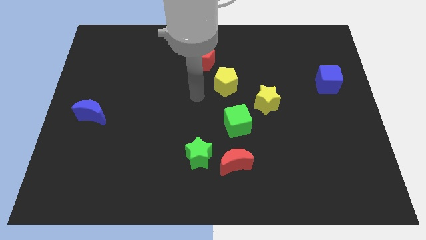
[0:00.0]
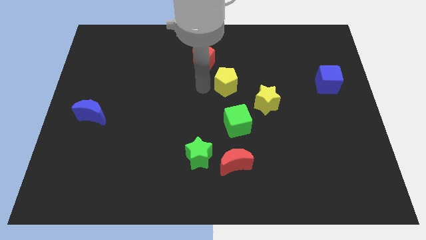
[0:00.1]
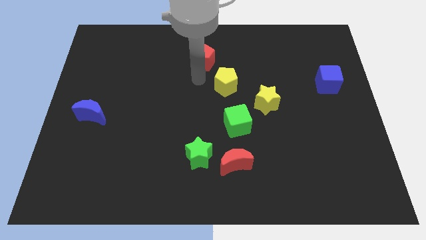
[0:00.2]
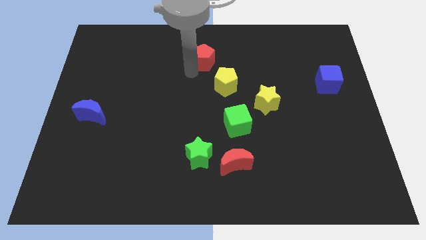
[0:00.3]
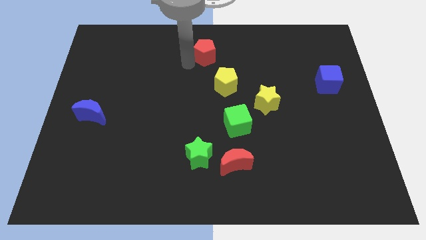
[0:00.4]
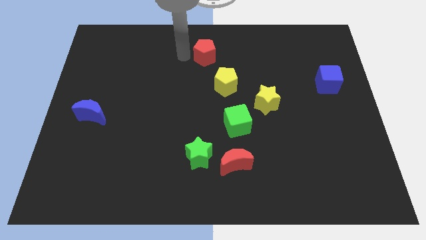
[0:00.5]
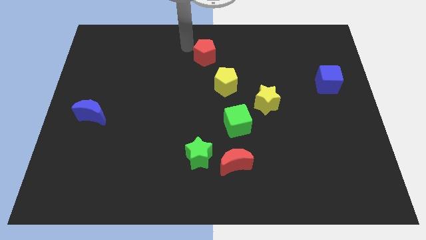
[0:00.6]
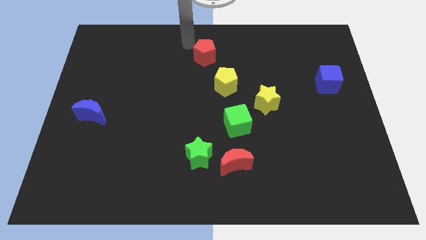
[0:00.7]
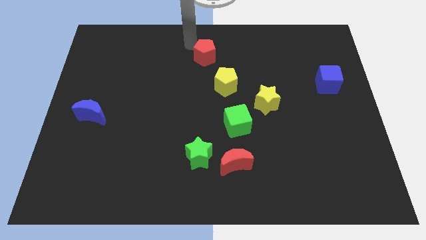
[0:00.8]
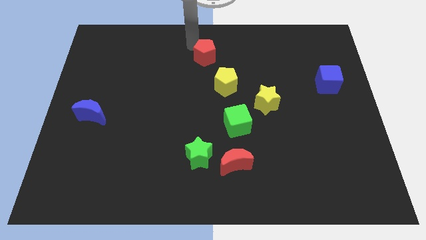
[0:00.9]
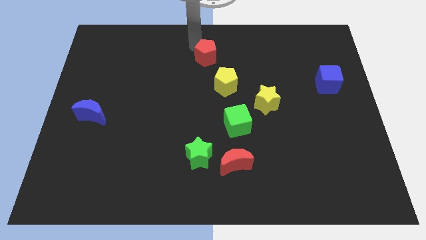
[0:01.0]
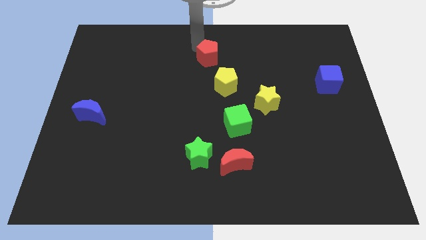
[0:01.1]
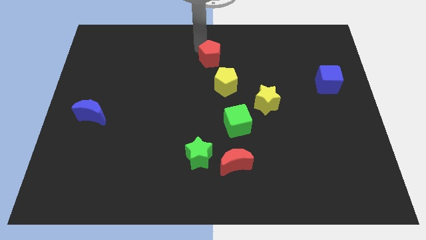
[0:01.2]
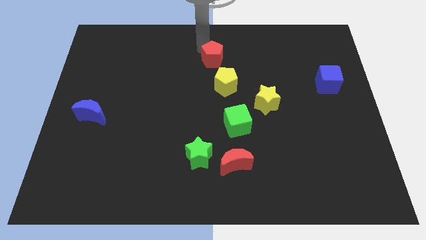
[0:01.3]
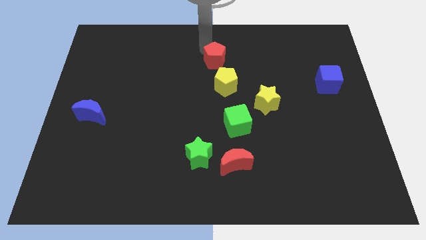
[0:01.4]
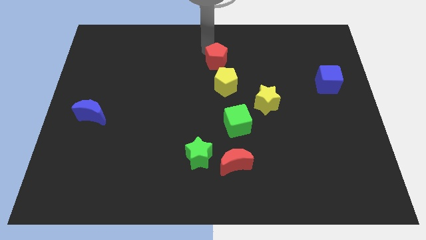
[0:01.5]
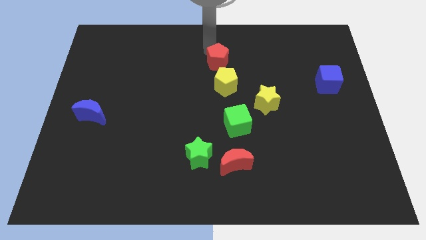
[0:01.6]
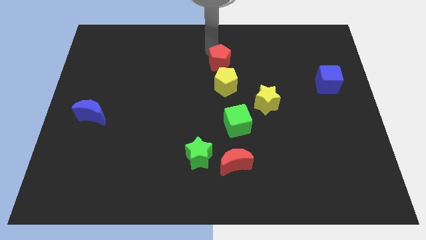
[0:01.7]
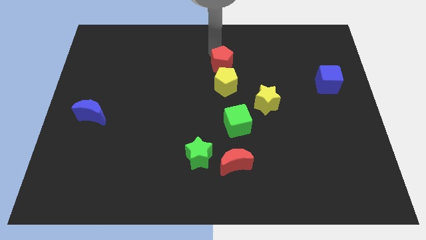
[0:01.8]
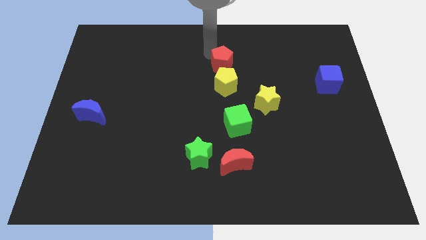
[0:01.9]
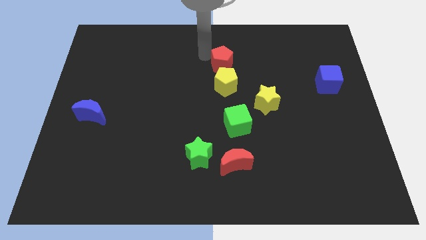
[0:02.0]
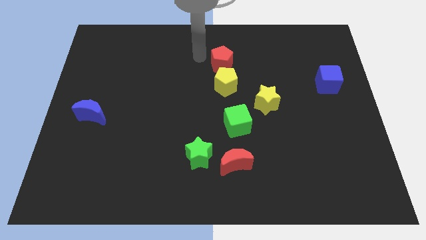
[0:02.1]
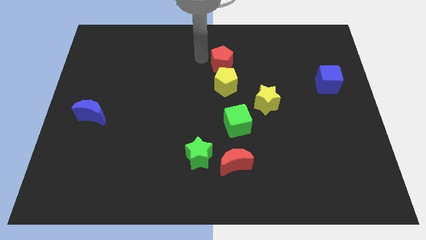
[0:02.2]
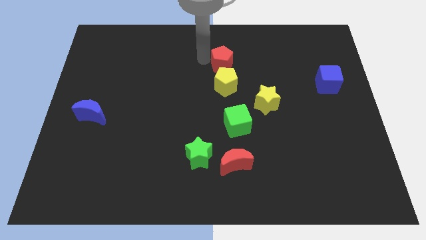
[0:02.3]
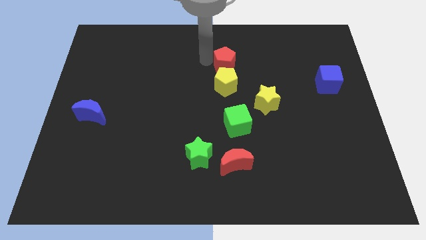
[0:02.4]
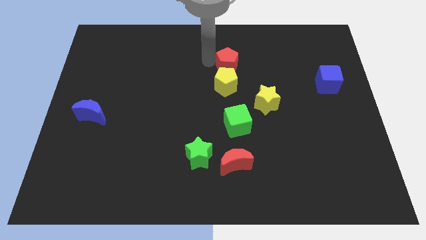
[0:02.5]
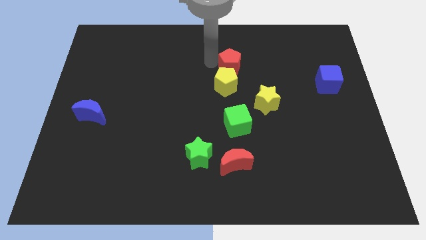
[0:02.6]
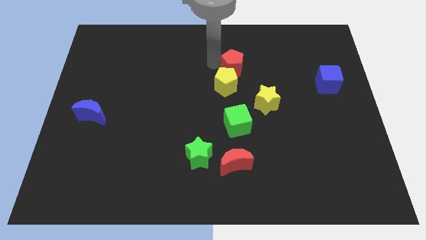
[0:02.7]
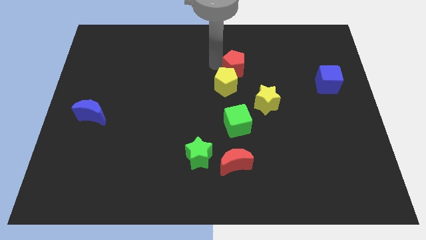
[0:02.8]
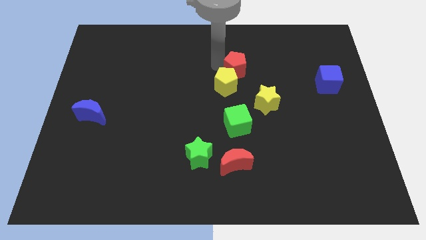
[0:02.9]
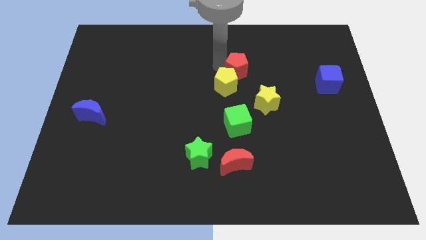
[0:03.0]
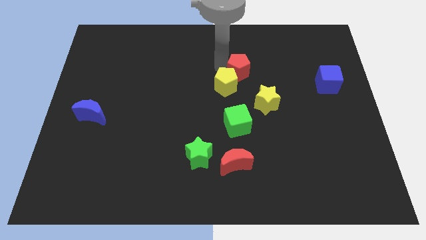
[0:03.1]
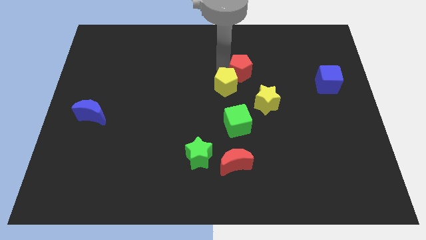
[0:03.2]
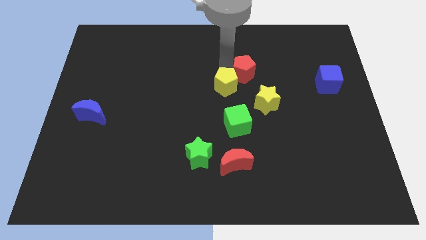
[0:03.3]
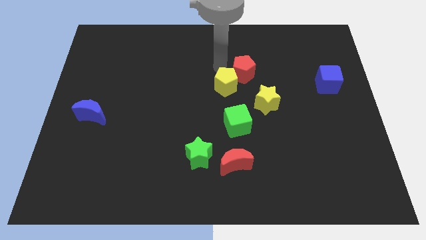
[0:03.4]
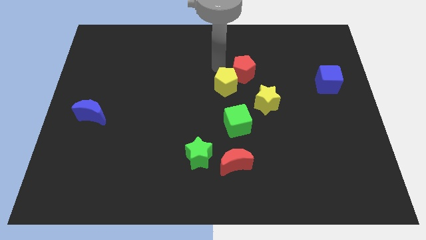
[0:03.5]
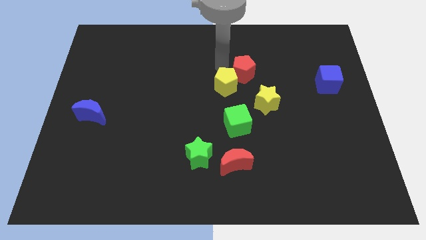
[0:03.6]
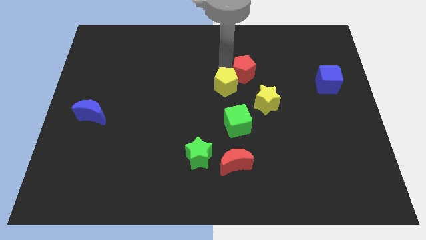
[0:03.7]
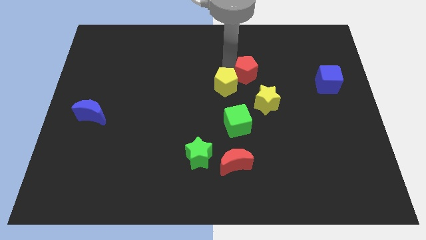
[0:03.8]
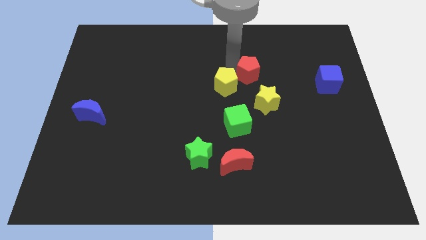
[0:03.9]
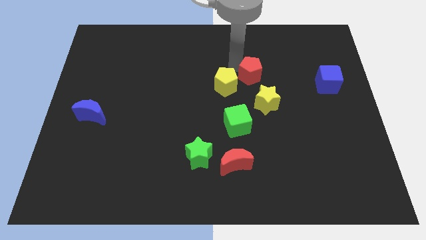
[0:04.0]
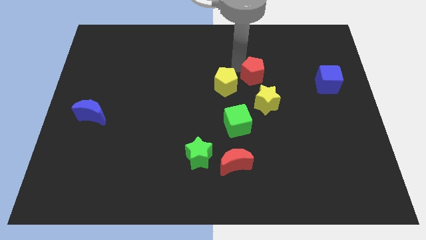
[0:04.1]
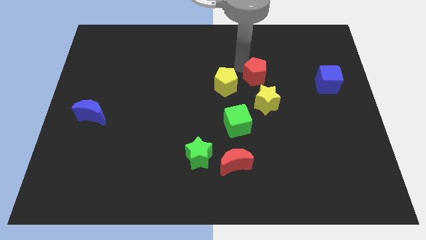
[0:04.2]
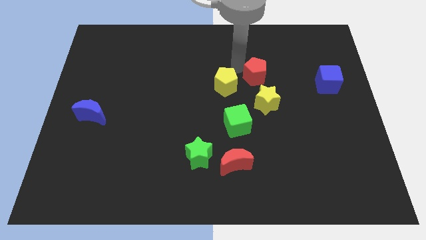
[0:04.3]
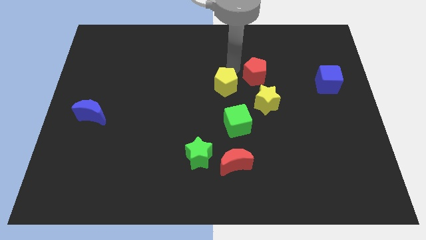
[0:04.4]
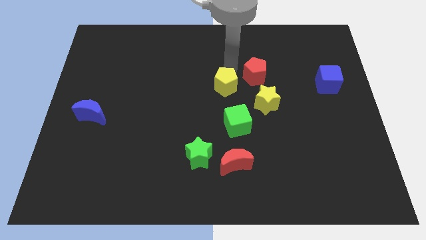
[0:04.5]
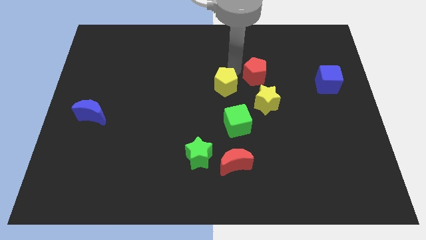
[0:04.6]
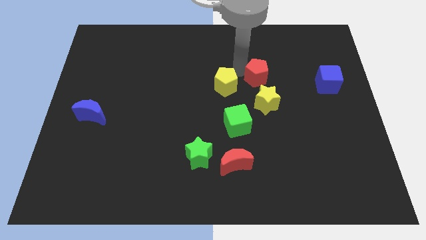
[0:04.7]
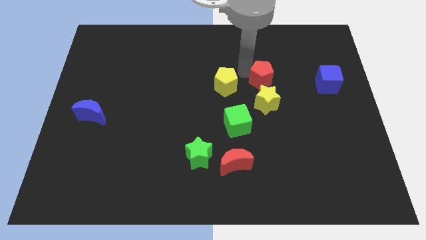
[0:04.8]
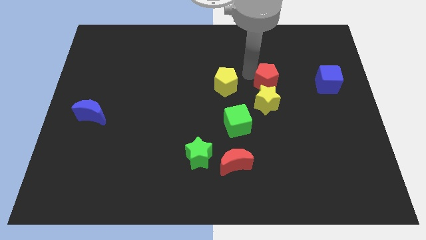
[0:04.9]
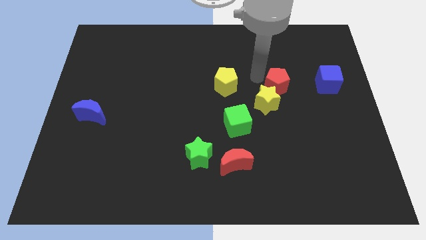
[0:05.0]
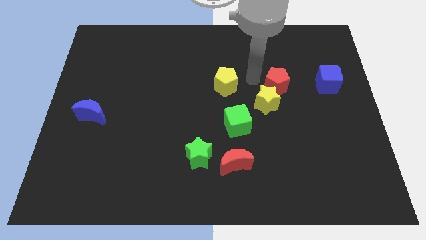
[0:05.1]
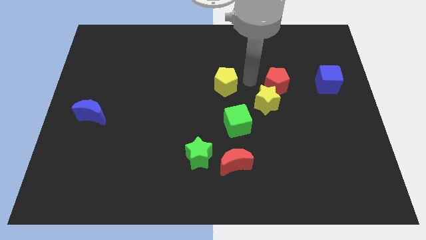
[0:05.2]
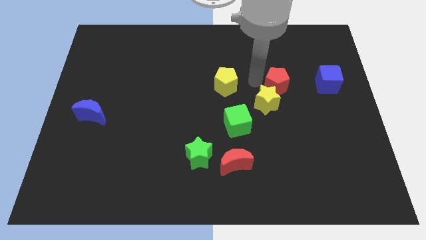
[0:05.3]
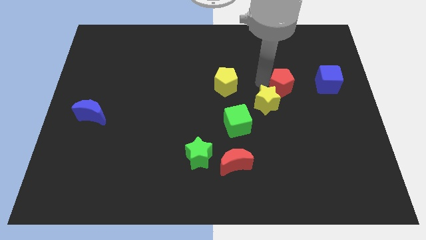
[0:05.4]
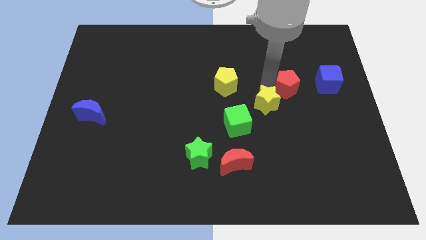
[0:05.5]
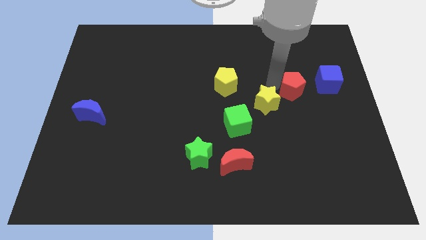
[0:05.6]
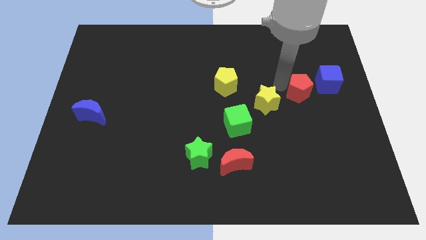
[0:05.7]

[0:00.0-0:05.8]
put the red pentagon to the bottom left of the blue cube

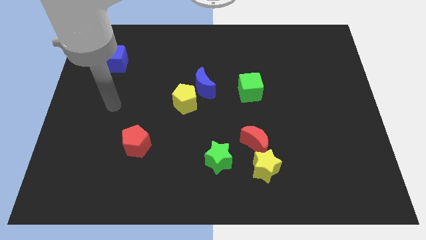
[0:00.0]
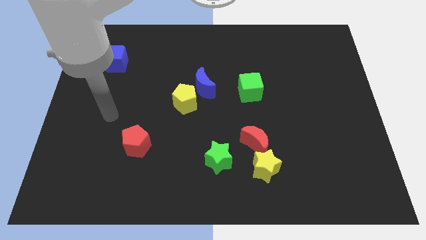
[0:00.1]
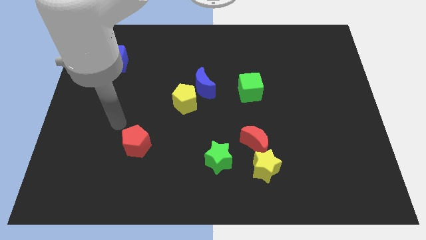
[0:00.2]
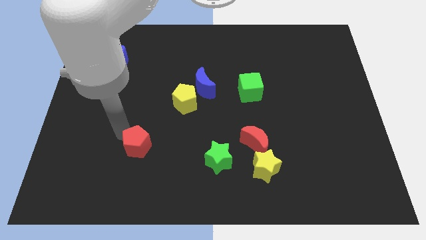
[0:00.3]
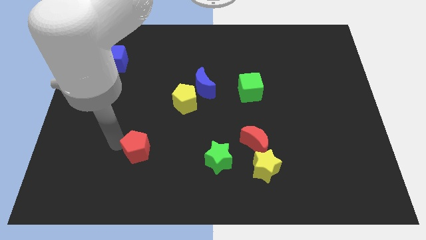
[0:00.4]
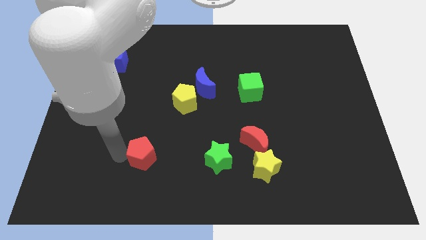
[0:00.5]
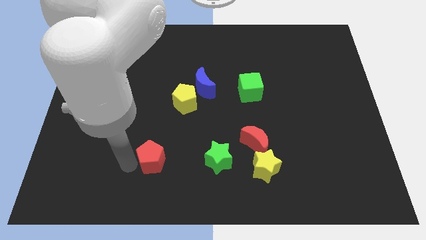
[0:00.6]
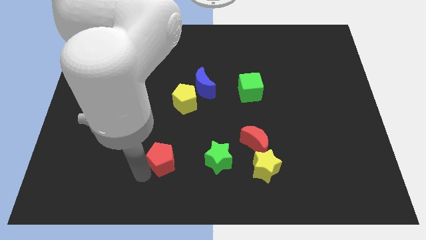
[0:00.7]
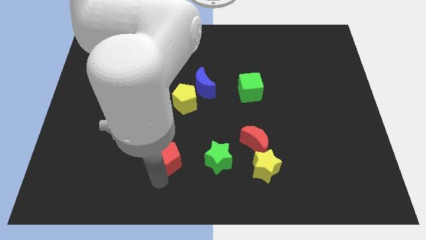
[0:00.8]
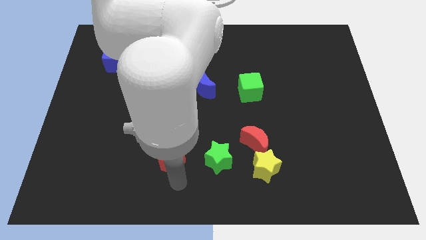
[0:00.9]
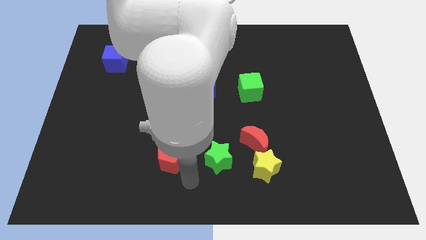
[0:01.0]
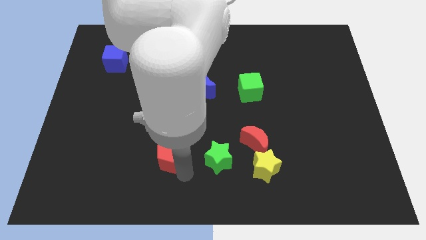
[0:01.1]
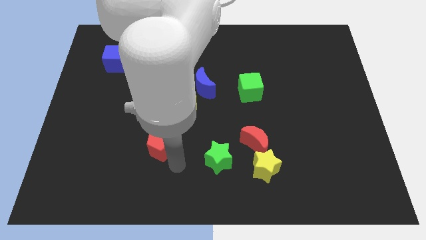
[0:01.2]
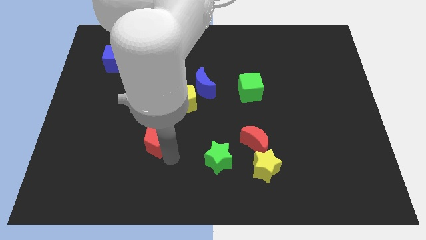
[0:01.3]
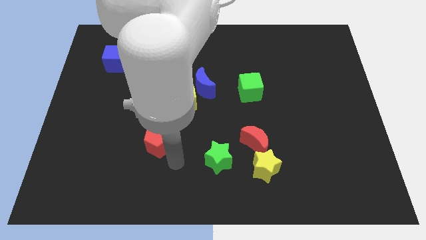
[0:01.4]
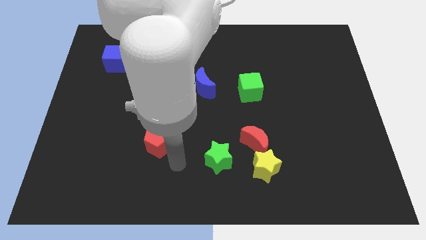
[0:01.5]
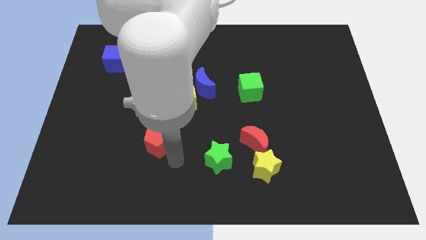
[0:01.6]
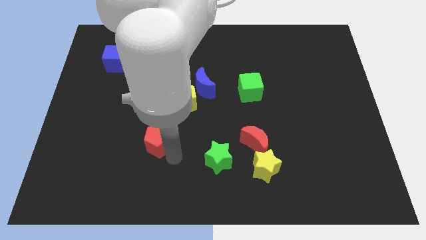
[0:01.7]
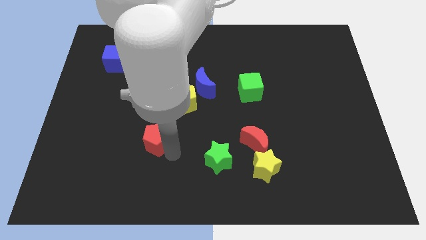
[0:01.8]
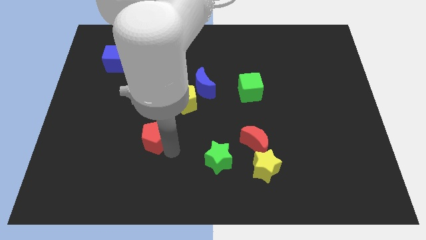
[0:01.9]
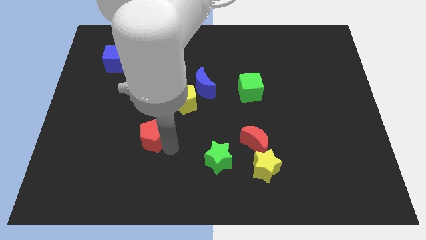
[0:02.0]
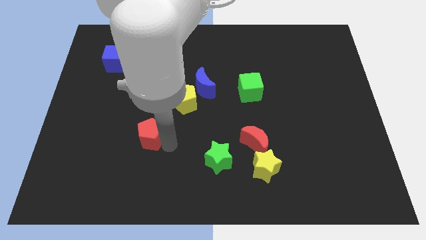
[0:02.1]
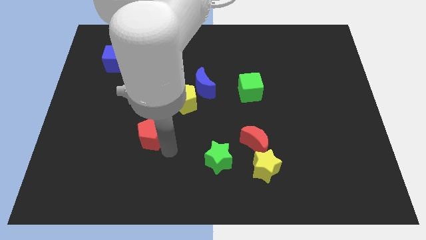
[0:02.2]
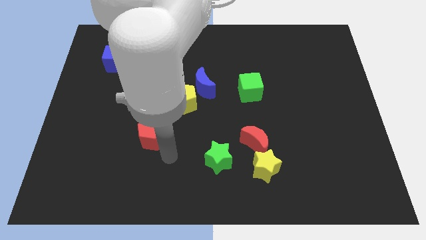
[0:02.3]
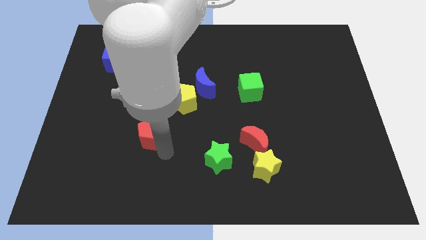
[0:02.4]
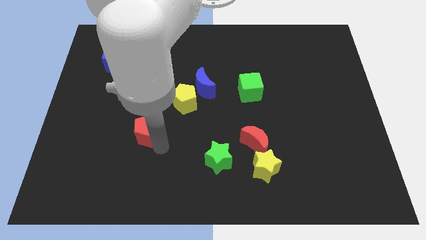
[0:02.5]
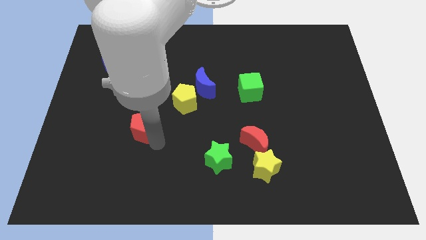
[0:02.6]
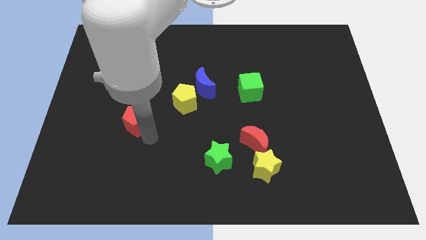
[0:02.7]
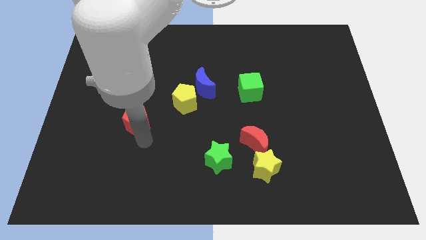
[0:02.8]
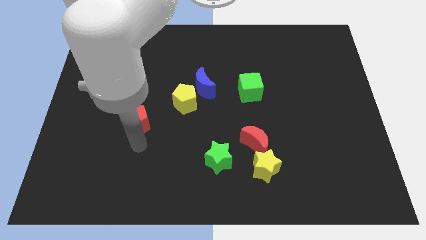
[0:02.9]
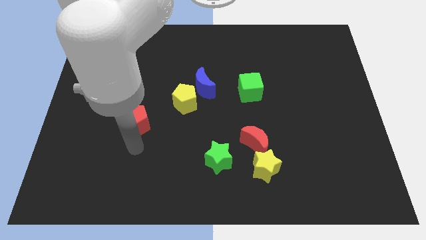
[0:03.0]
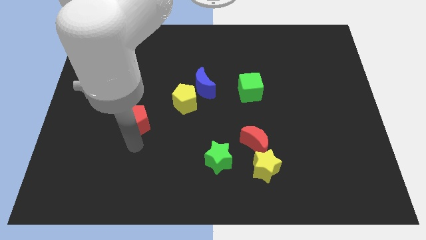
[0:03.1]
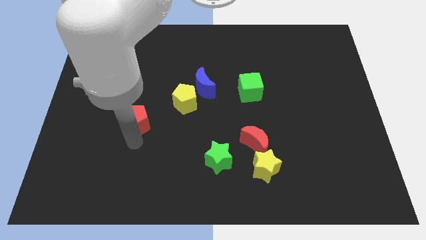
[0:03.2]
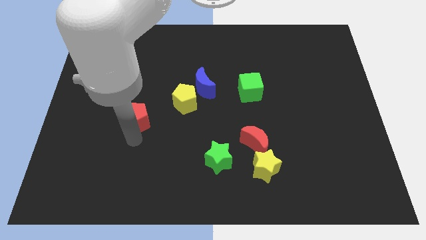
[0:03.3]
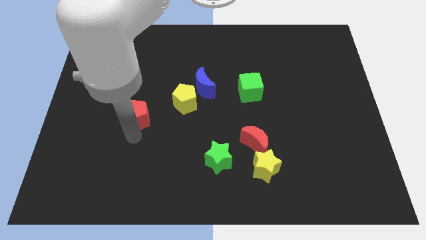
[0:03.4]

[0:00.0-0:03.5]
push the red pentagon to the left side of the yellow pentagon
